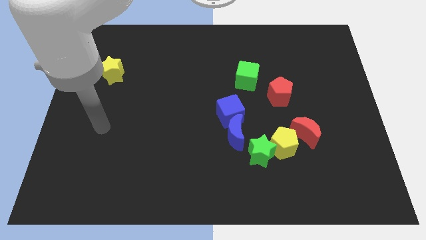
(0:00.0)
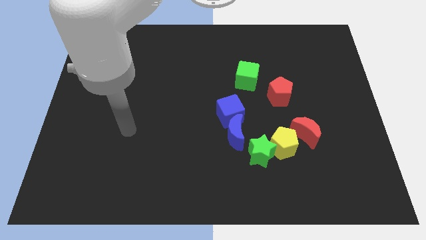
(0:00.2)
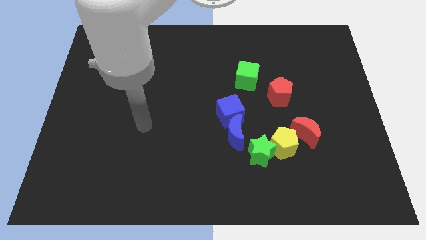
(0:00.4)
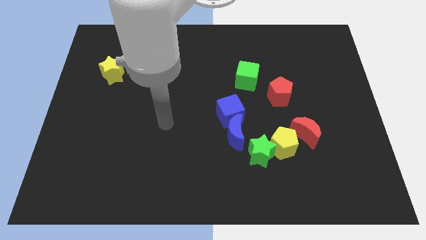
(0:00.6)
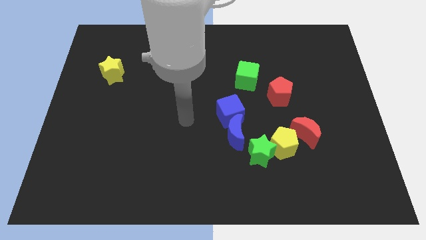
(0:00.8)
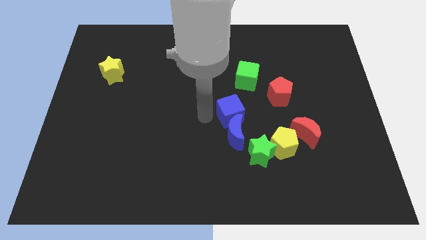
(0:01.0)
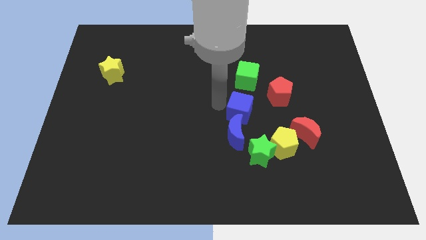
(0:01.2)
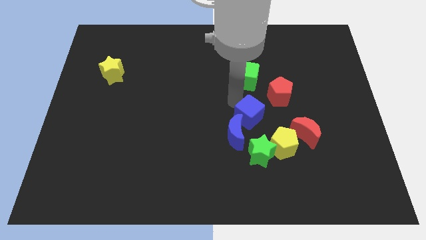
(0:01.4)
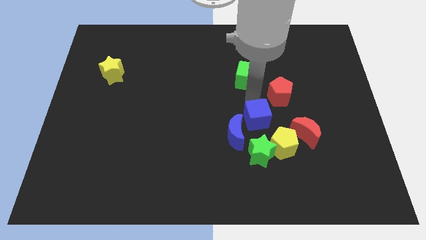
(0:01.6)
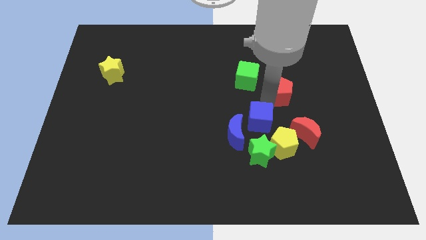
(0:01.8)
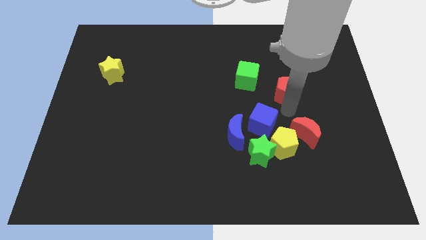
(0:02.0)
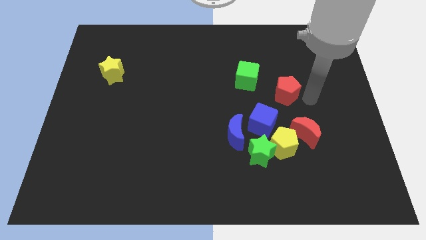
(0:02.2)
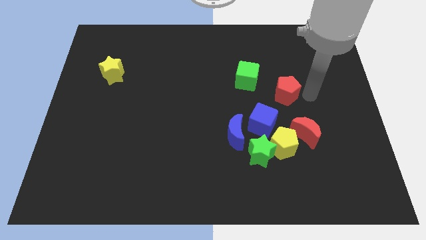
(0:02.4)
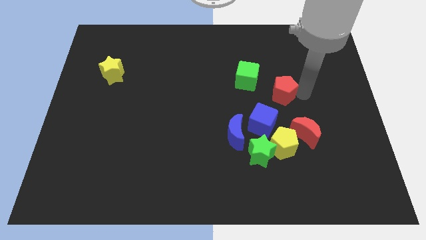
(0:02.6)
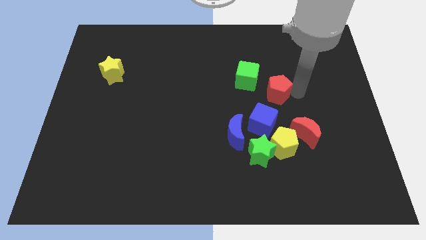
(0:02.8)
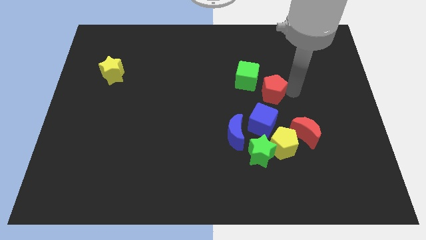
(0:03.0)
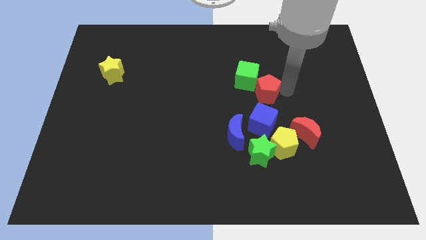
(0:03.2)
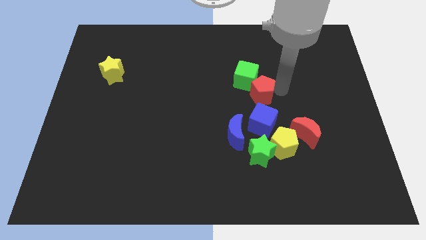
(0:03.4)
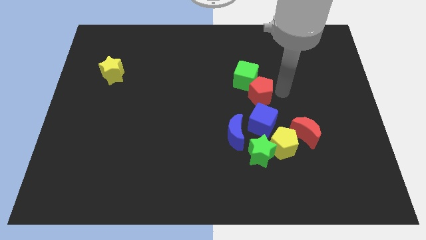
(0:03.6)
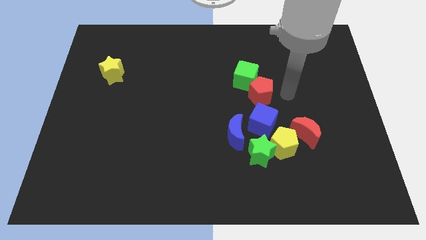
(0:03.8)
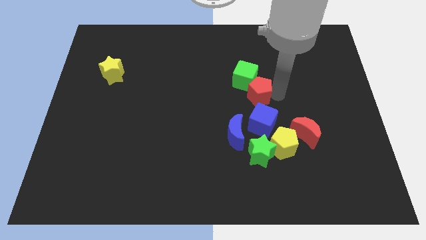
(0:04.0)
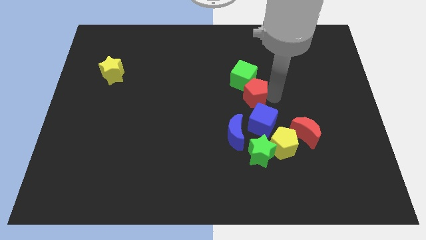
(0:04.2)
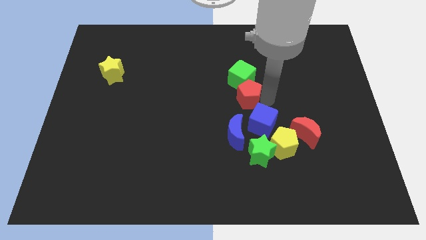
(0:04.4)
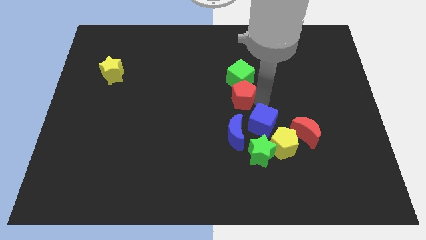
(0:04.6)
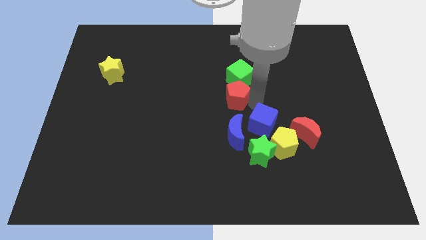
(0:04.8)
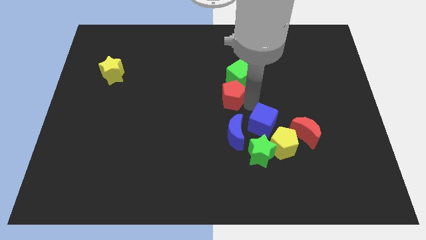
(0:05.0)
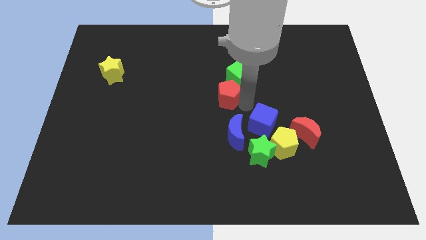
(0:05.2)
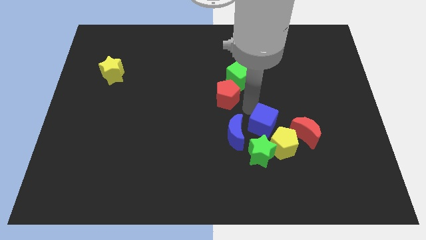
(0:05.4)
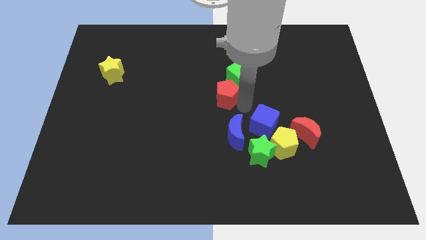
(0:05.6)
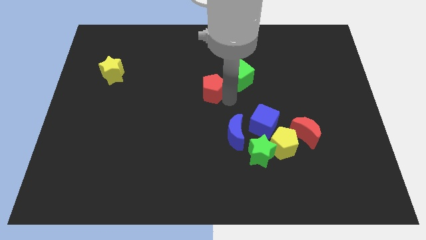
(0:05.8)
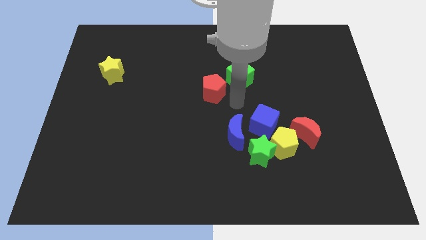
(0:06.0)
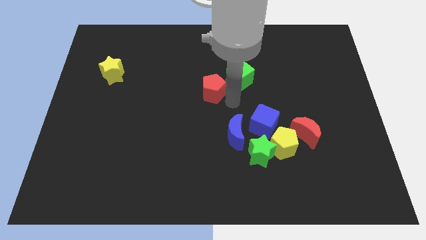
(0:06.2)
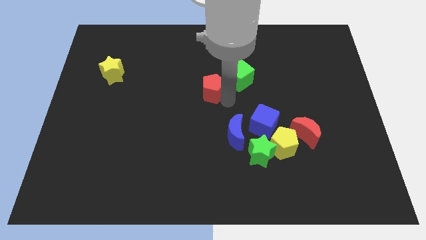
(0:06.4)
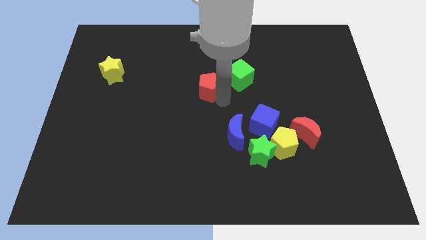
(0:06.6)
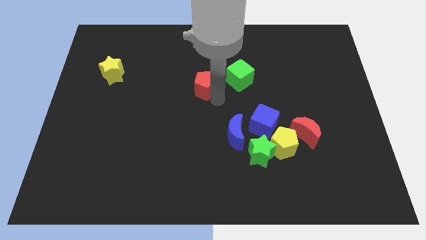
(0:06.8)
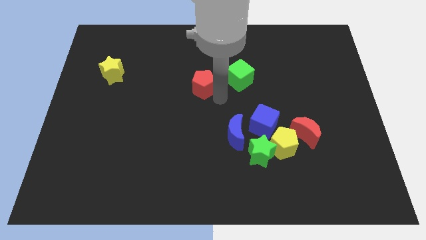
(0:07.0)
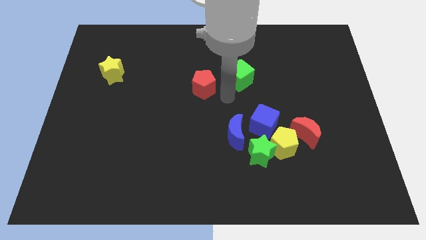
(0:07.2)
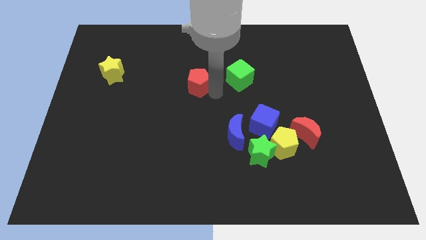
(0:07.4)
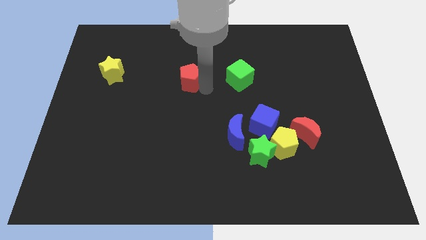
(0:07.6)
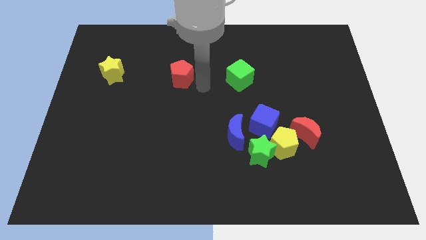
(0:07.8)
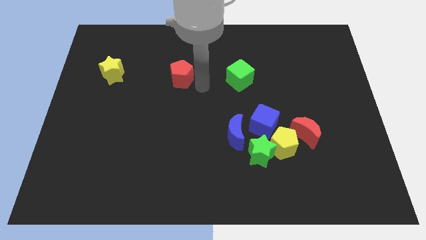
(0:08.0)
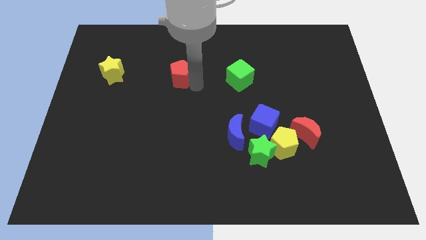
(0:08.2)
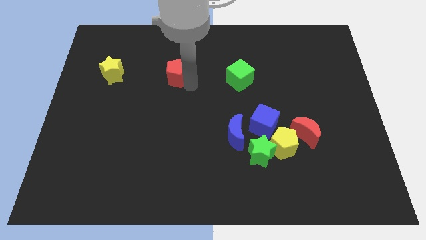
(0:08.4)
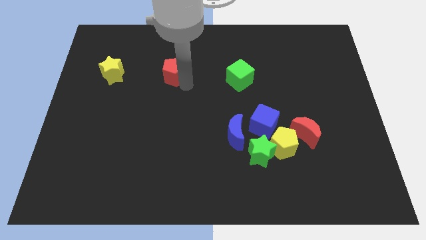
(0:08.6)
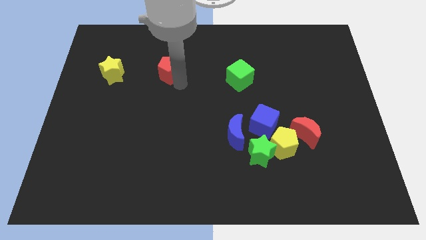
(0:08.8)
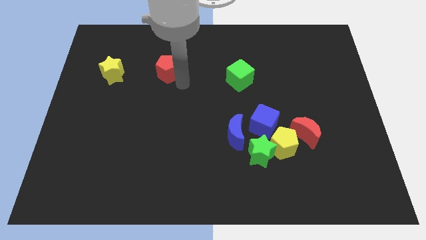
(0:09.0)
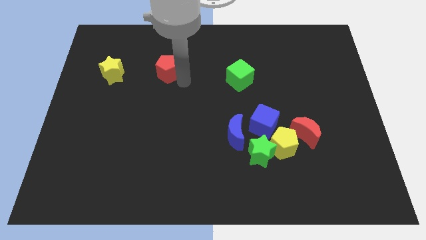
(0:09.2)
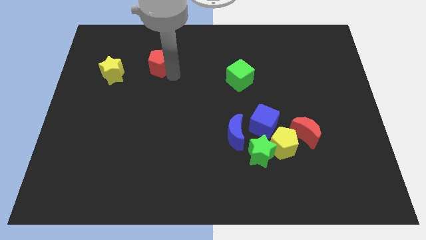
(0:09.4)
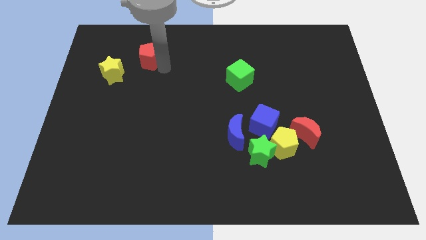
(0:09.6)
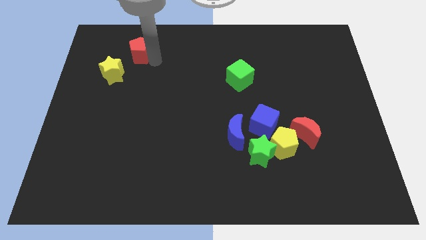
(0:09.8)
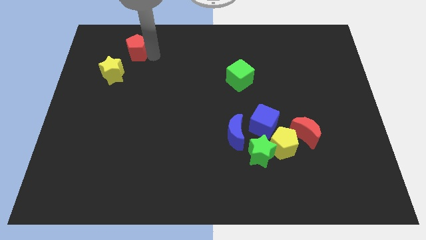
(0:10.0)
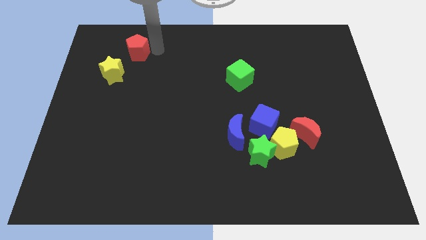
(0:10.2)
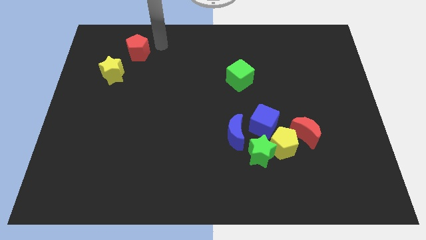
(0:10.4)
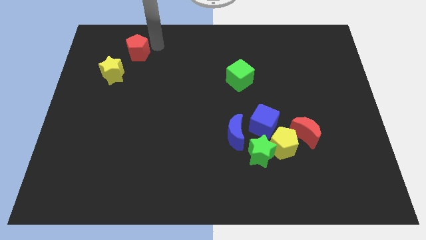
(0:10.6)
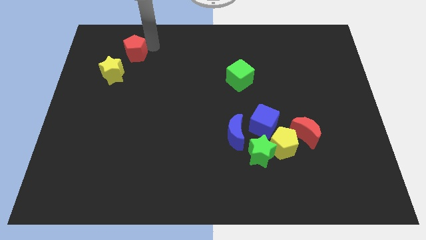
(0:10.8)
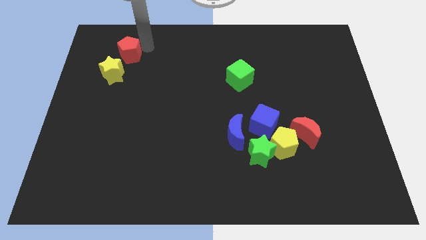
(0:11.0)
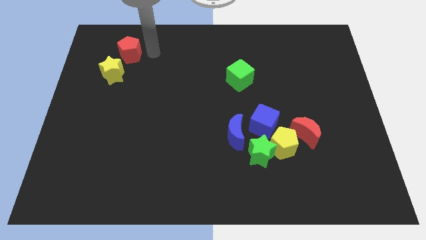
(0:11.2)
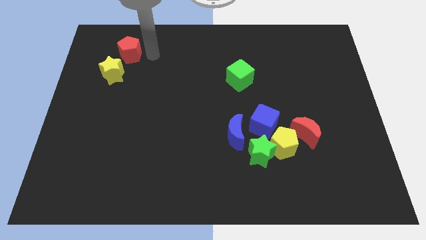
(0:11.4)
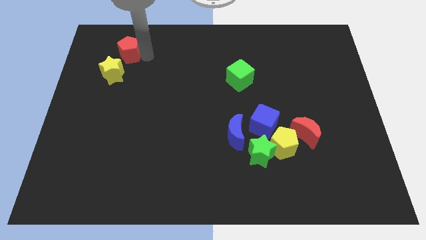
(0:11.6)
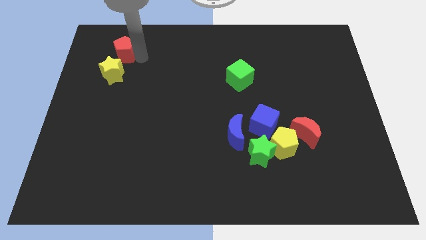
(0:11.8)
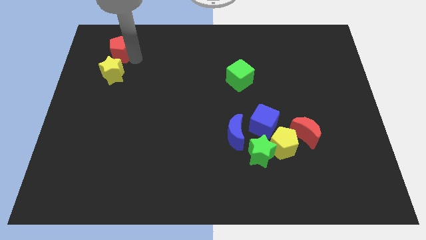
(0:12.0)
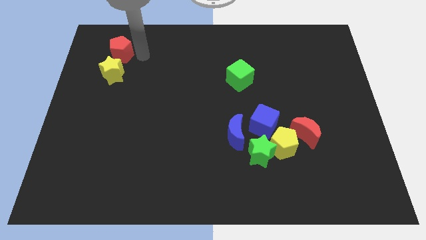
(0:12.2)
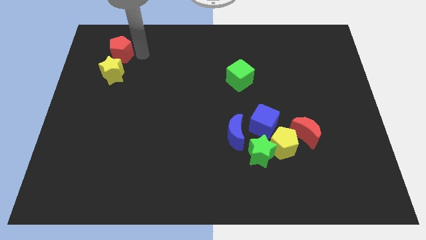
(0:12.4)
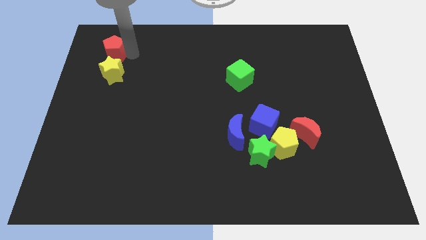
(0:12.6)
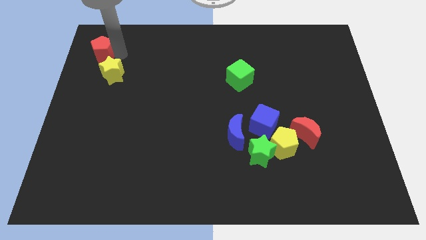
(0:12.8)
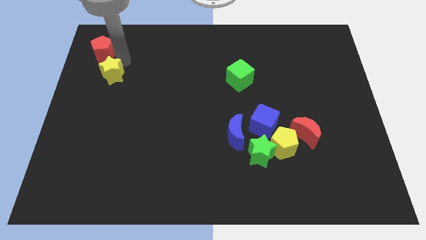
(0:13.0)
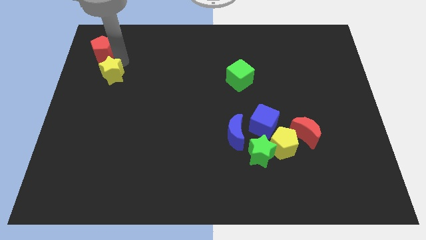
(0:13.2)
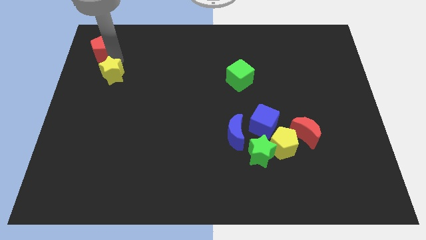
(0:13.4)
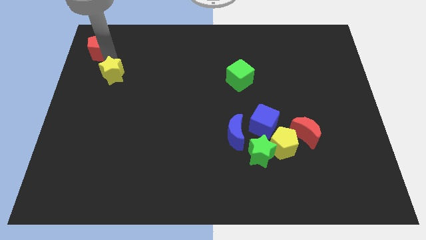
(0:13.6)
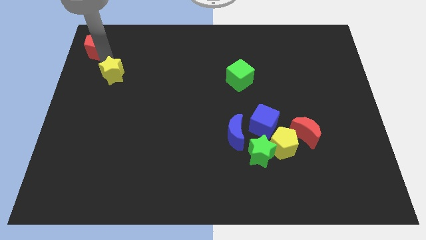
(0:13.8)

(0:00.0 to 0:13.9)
put the red pentagon to the upper left corner

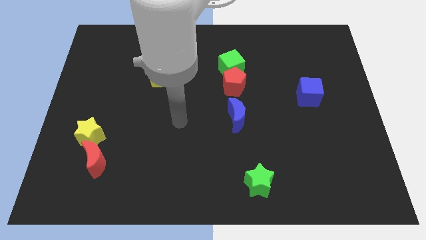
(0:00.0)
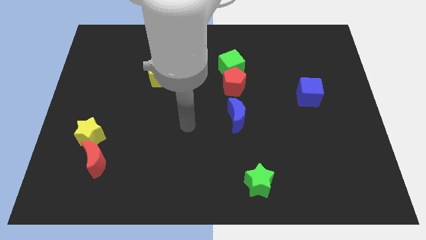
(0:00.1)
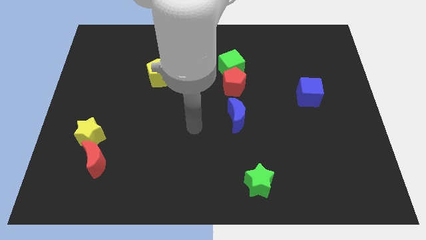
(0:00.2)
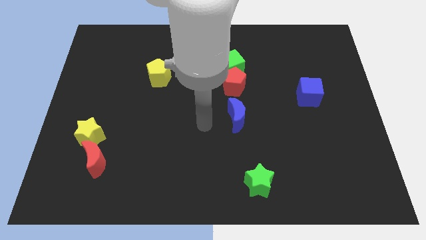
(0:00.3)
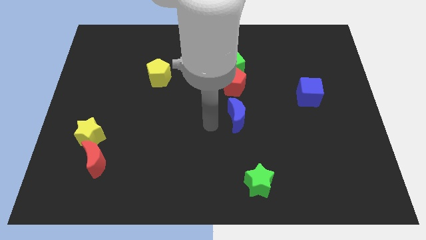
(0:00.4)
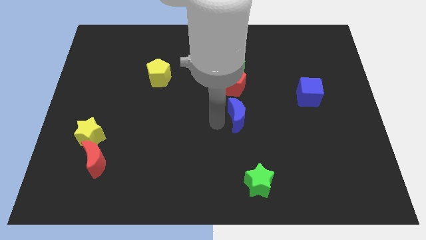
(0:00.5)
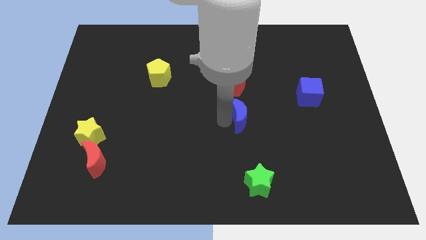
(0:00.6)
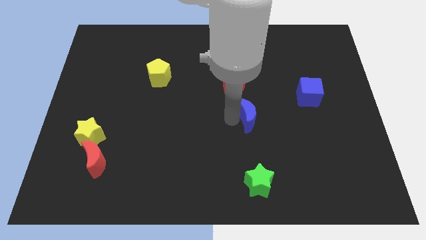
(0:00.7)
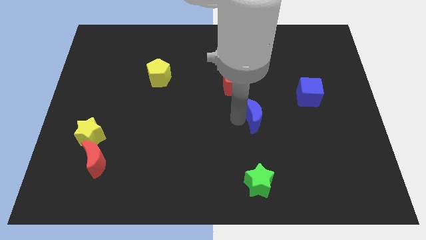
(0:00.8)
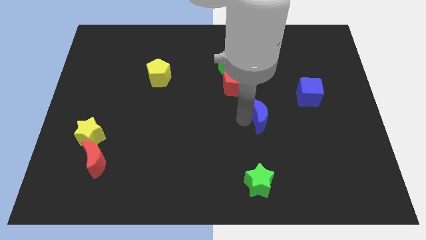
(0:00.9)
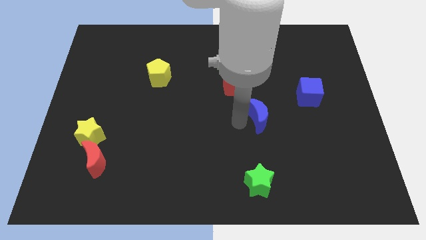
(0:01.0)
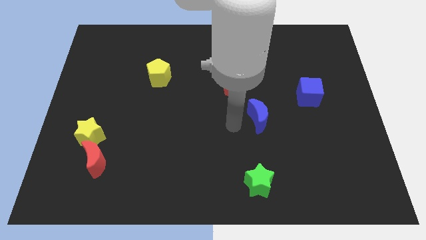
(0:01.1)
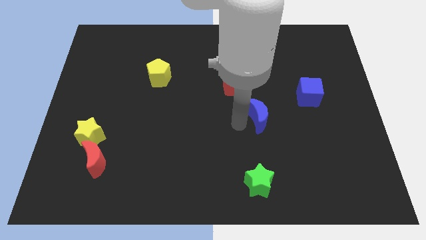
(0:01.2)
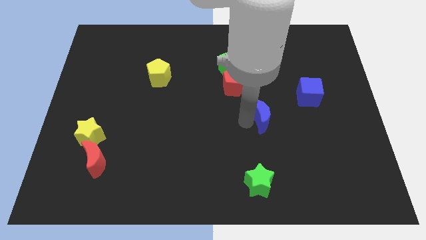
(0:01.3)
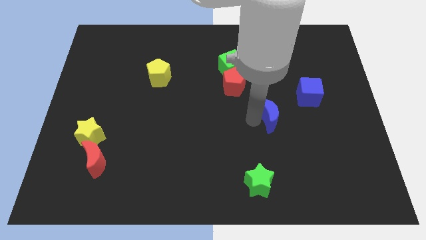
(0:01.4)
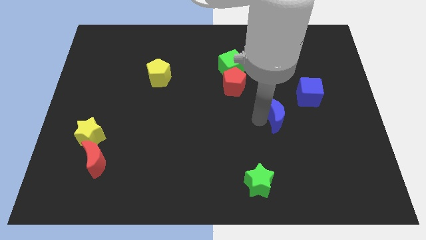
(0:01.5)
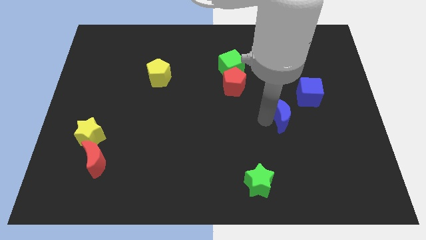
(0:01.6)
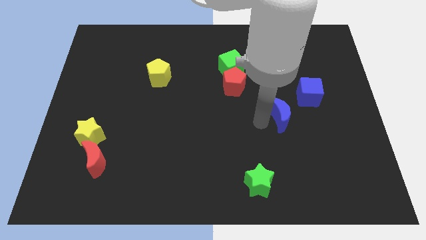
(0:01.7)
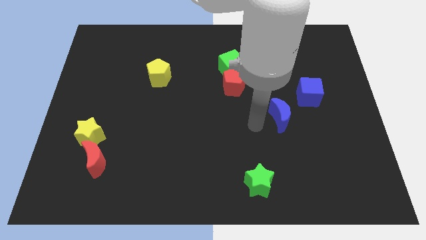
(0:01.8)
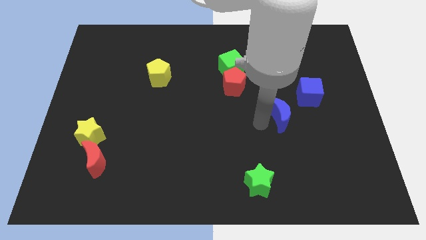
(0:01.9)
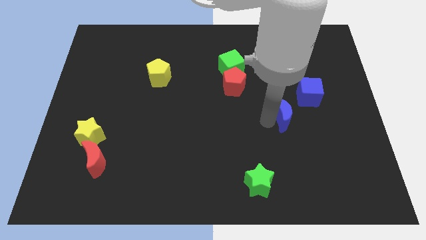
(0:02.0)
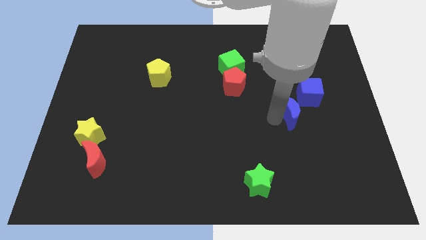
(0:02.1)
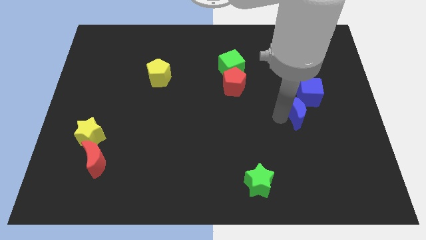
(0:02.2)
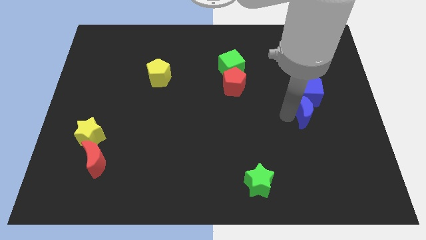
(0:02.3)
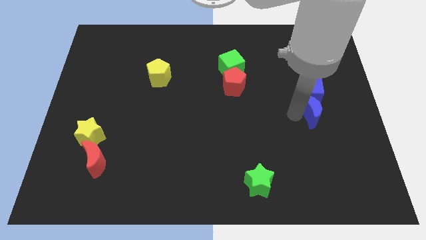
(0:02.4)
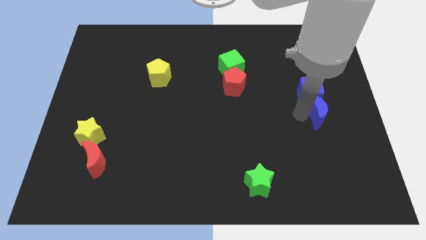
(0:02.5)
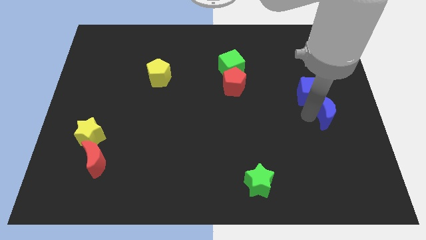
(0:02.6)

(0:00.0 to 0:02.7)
push the blue moon to the right side of the board
